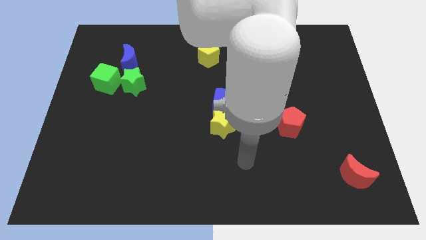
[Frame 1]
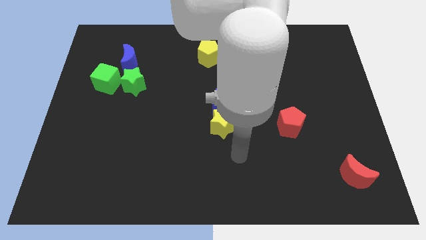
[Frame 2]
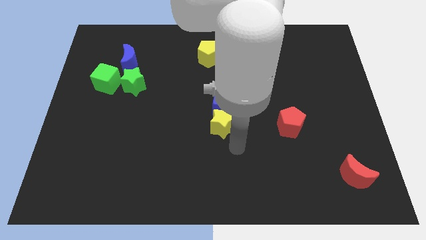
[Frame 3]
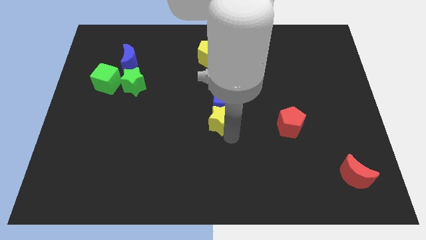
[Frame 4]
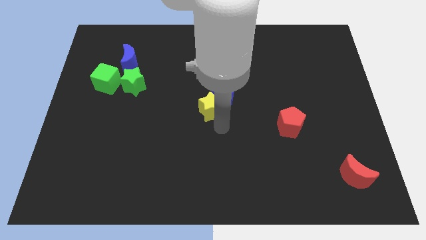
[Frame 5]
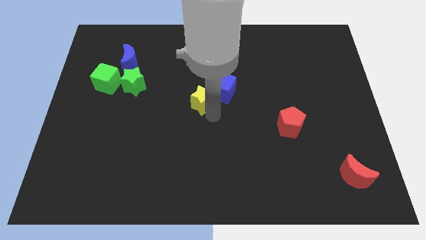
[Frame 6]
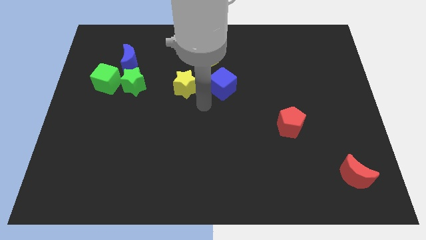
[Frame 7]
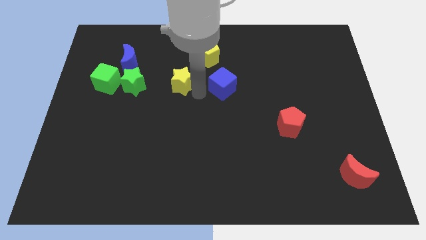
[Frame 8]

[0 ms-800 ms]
move the blue cube away from the yellow star

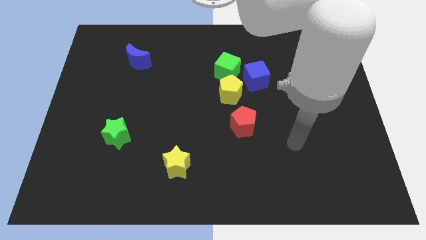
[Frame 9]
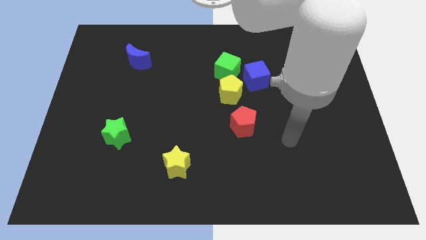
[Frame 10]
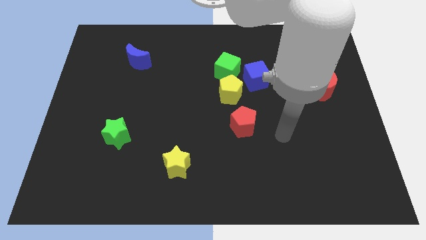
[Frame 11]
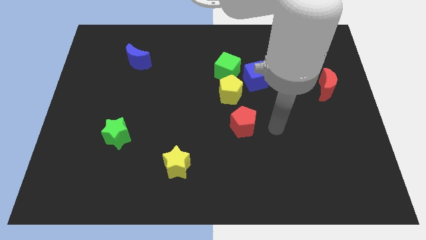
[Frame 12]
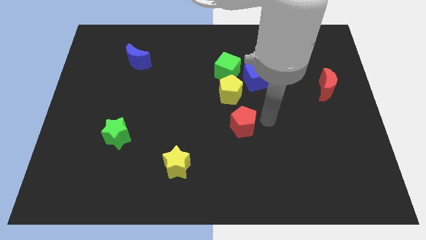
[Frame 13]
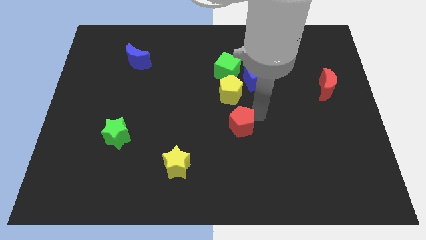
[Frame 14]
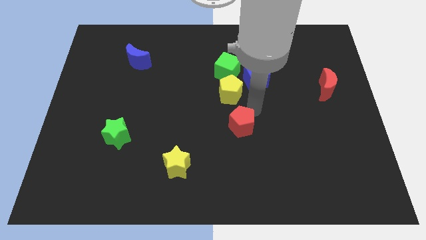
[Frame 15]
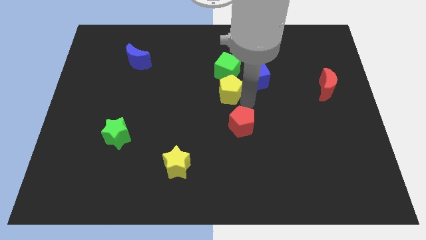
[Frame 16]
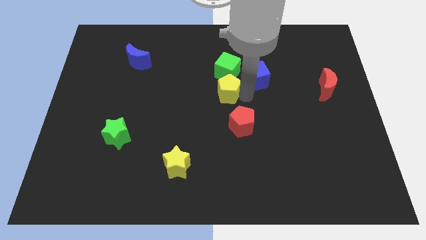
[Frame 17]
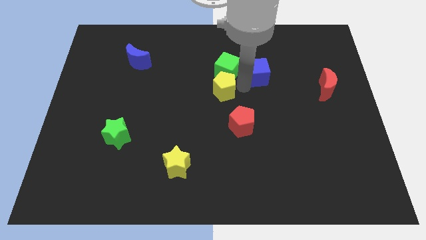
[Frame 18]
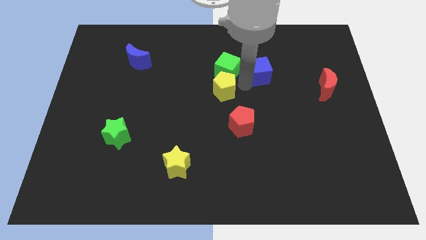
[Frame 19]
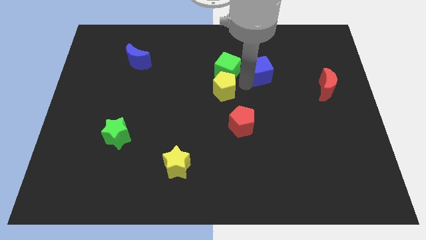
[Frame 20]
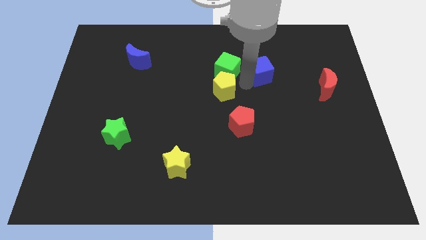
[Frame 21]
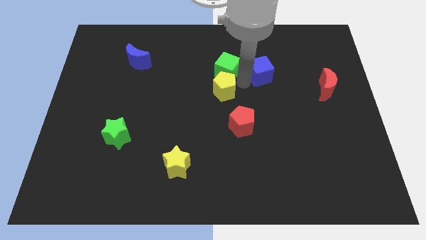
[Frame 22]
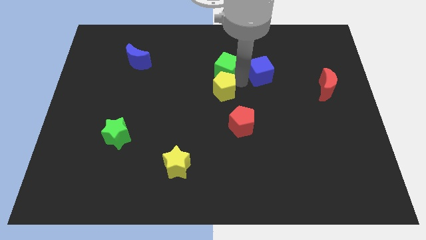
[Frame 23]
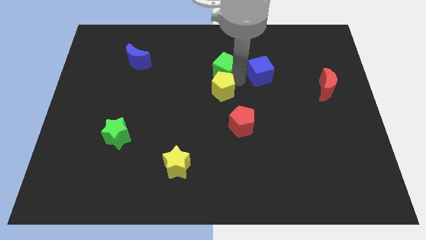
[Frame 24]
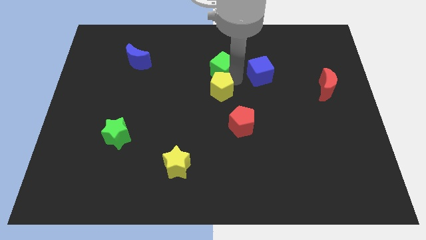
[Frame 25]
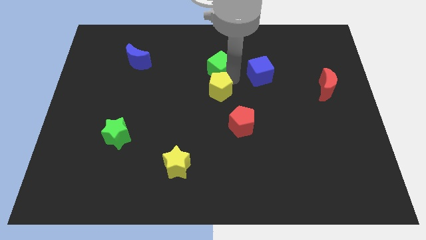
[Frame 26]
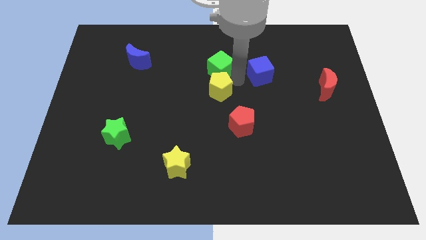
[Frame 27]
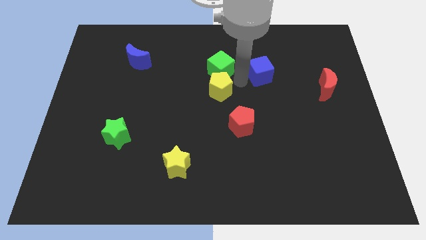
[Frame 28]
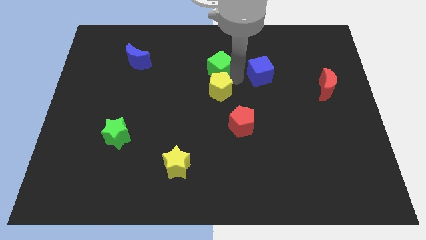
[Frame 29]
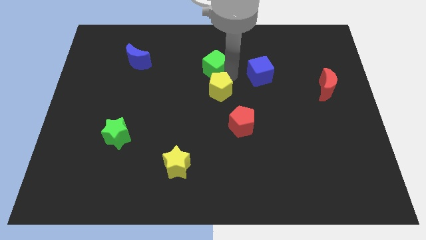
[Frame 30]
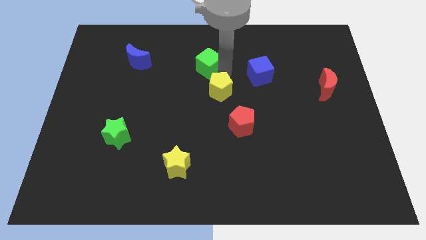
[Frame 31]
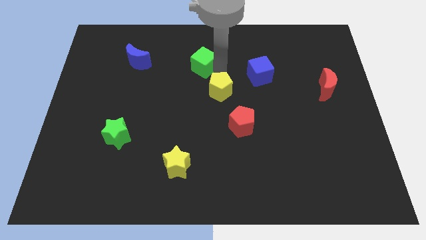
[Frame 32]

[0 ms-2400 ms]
separate the green cube from the yellow pentagon and blue cube

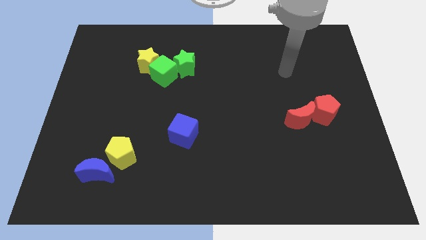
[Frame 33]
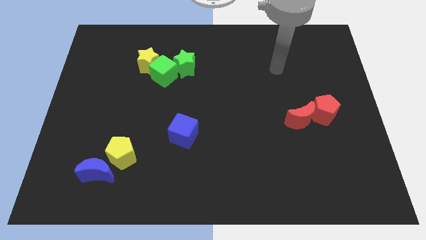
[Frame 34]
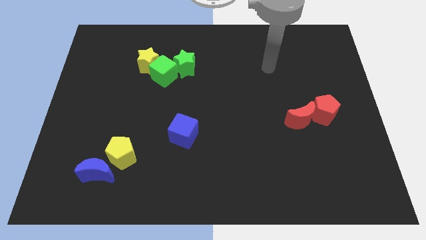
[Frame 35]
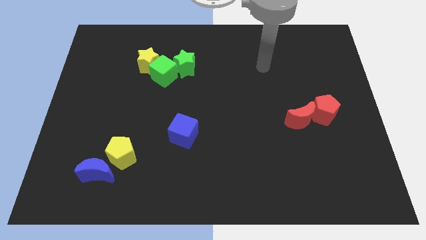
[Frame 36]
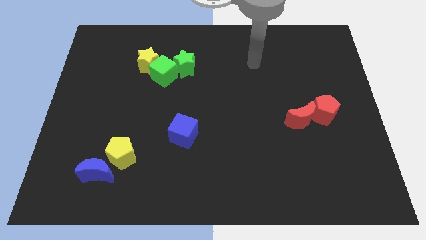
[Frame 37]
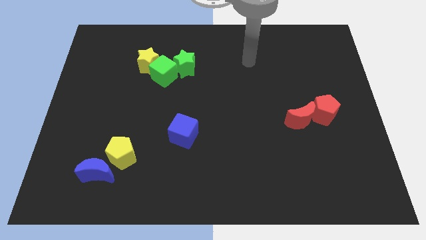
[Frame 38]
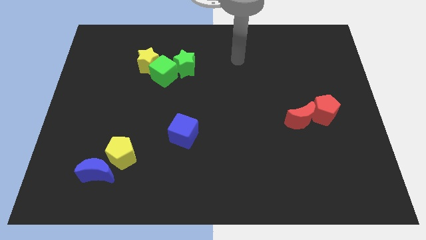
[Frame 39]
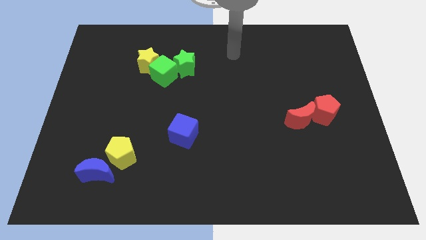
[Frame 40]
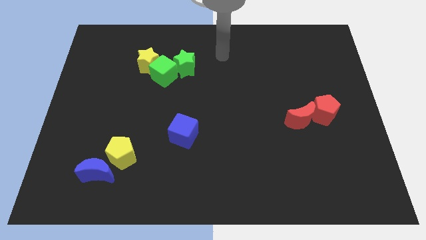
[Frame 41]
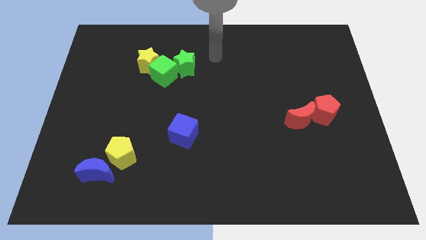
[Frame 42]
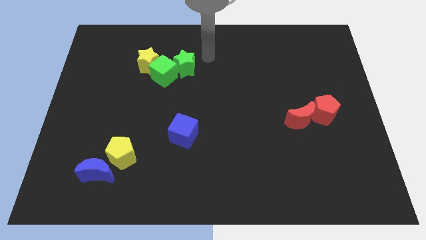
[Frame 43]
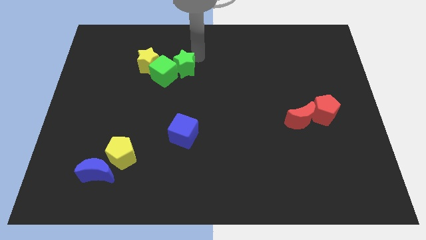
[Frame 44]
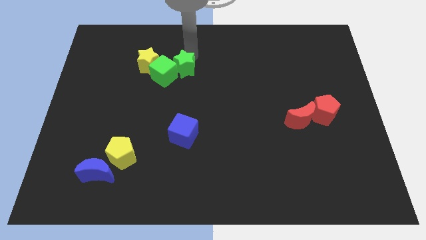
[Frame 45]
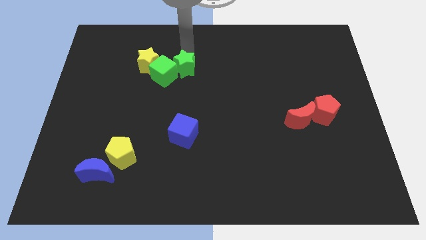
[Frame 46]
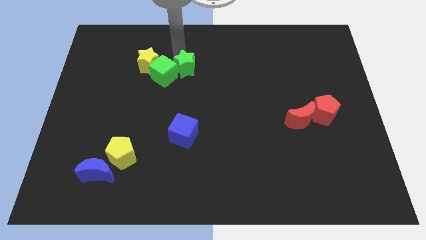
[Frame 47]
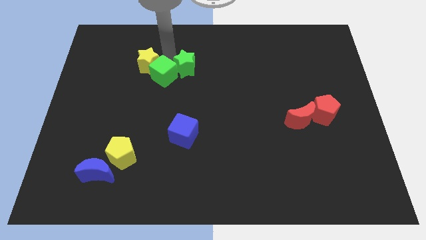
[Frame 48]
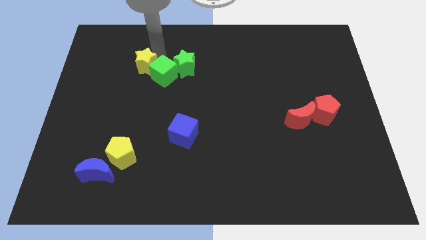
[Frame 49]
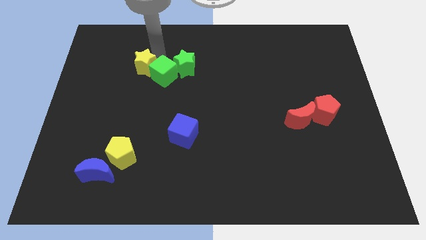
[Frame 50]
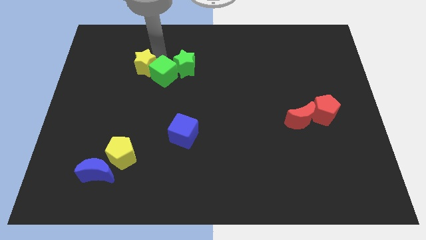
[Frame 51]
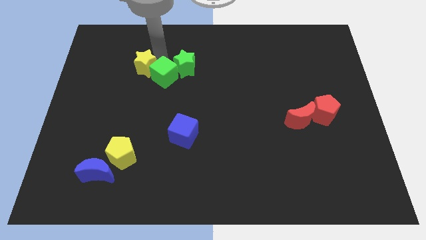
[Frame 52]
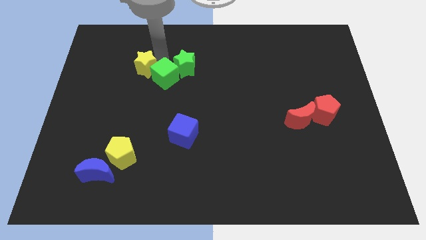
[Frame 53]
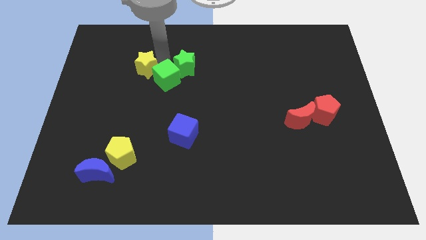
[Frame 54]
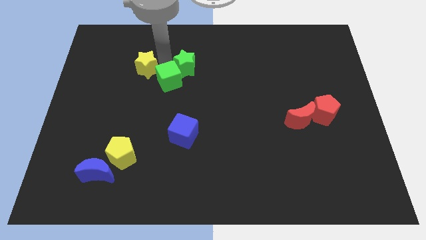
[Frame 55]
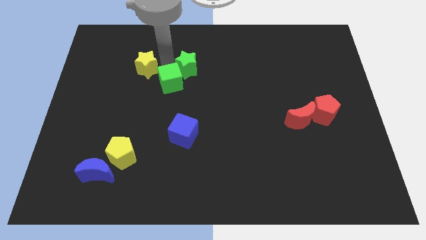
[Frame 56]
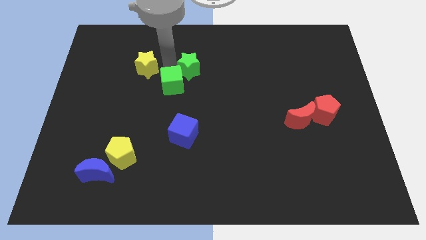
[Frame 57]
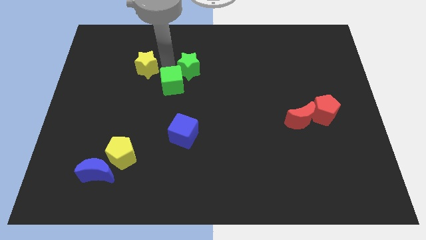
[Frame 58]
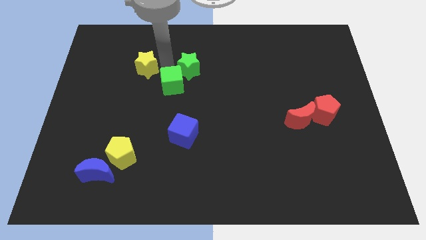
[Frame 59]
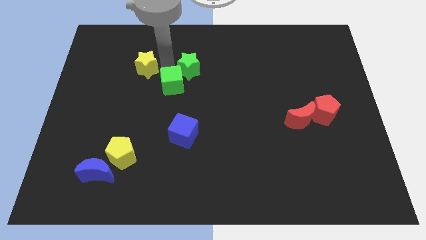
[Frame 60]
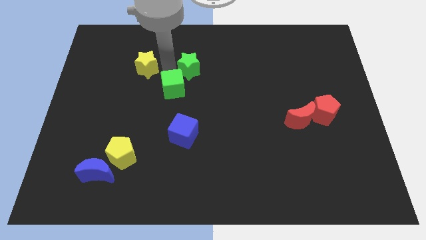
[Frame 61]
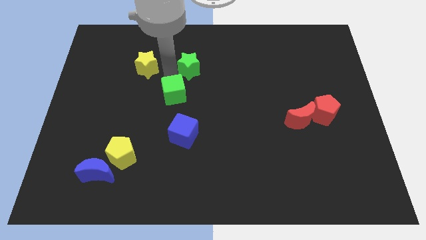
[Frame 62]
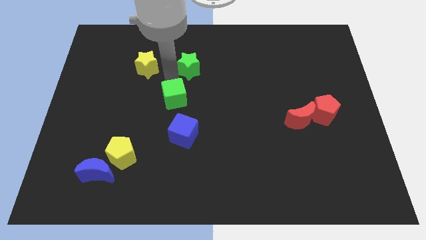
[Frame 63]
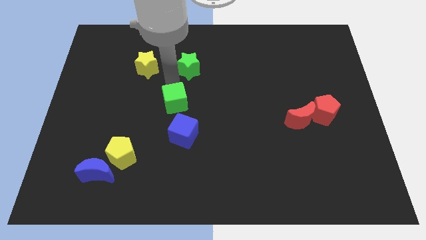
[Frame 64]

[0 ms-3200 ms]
move the green cube away from the yellow star and green star

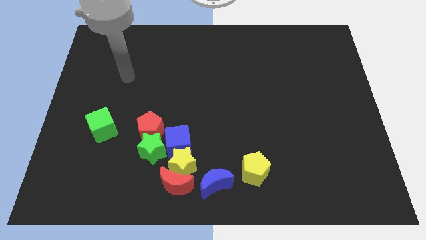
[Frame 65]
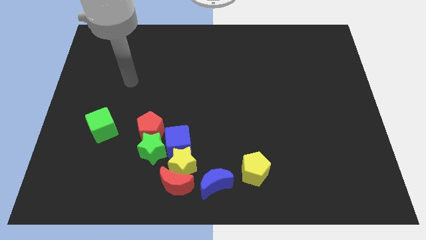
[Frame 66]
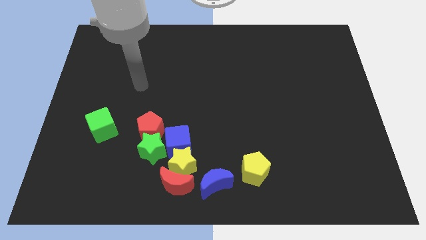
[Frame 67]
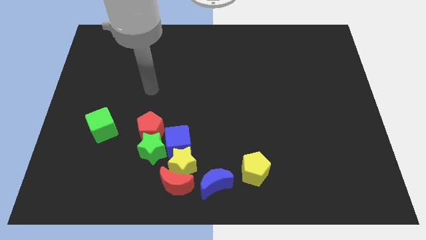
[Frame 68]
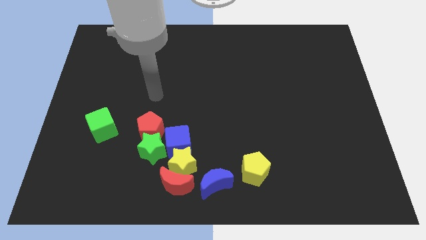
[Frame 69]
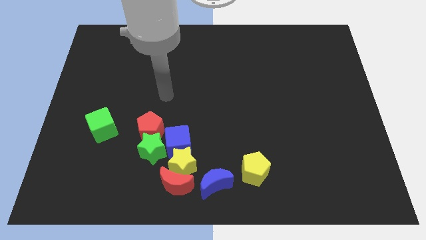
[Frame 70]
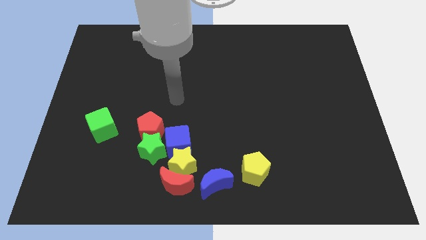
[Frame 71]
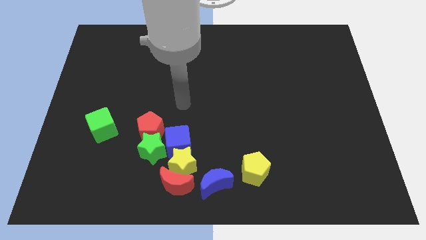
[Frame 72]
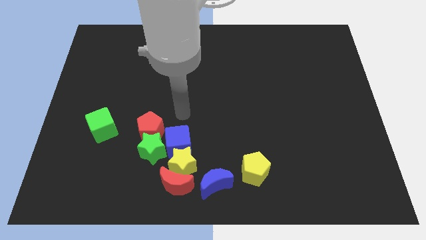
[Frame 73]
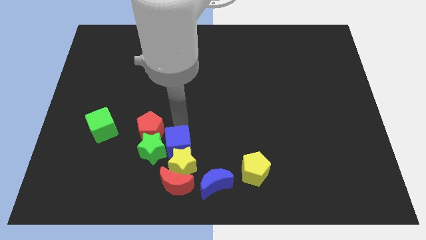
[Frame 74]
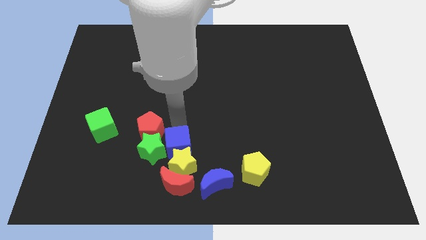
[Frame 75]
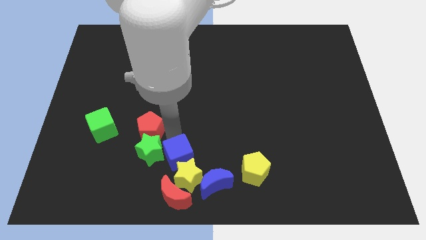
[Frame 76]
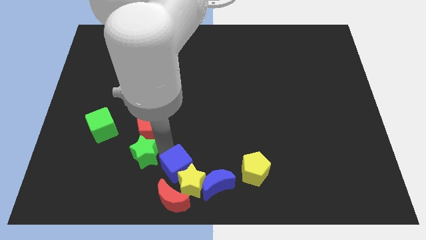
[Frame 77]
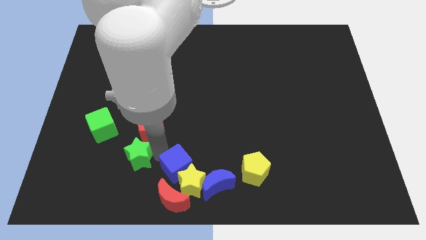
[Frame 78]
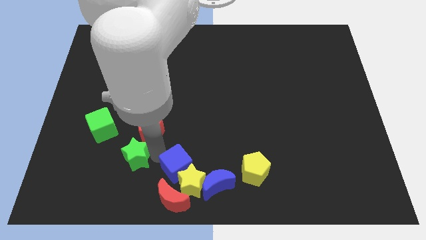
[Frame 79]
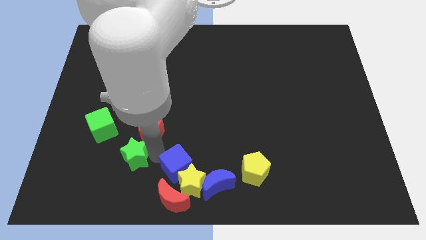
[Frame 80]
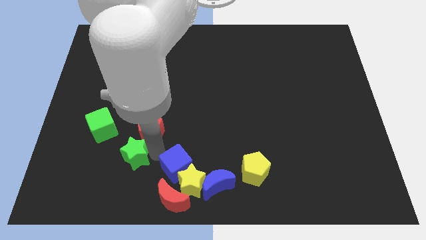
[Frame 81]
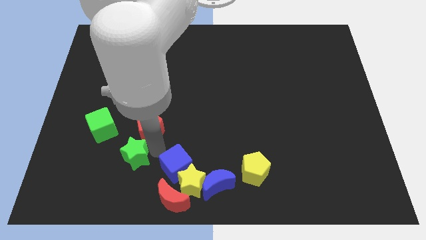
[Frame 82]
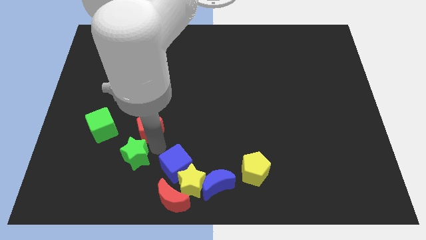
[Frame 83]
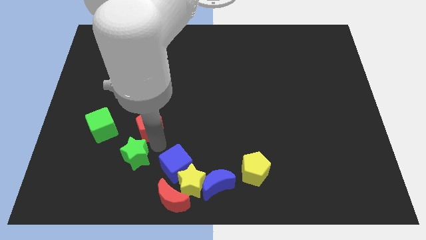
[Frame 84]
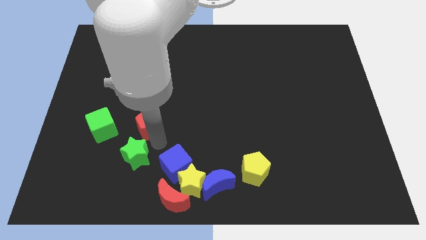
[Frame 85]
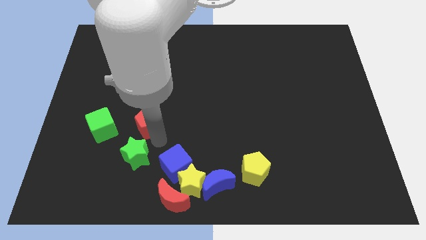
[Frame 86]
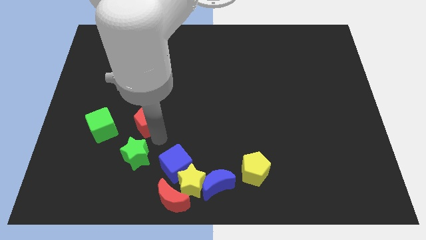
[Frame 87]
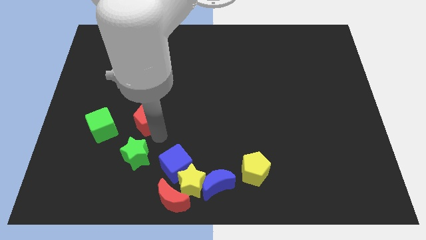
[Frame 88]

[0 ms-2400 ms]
move the red pentagon away from the green star and blue cube

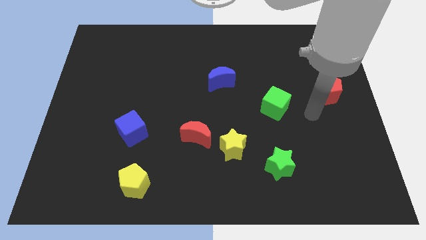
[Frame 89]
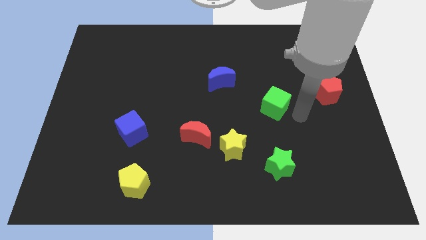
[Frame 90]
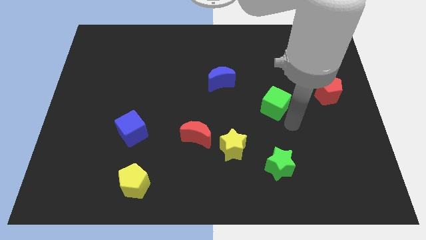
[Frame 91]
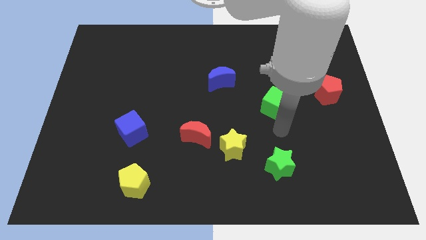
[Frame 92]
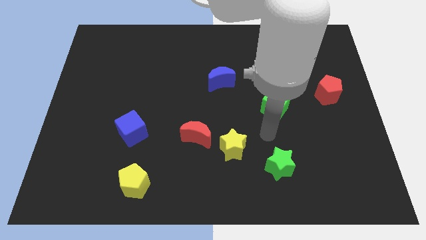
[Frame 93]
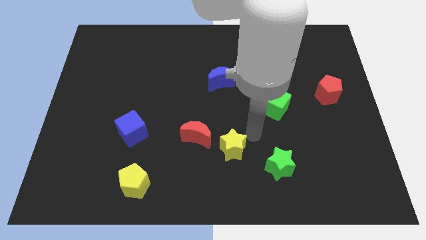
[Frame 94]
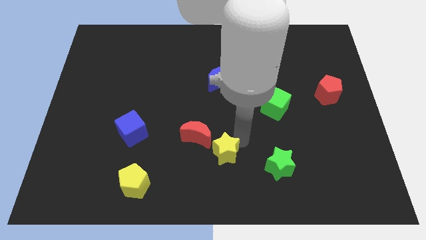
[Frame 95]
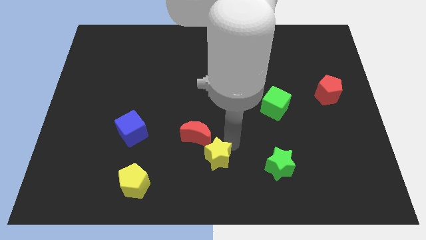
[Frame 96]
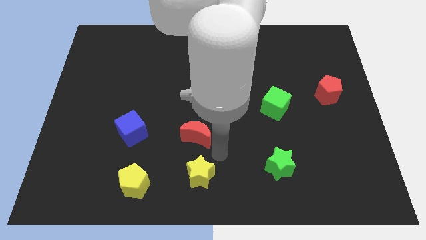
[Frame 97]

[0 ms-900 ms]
separate the red moon from the yellow star
